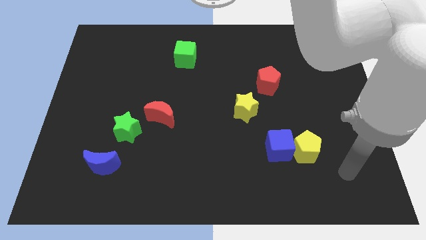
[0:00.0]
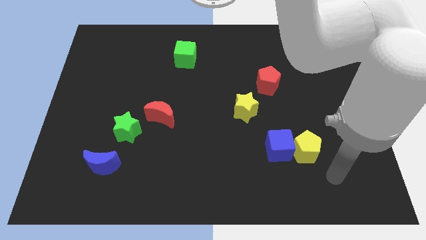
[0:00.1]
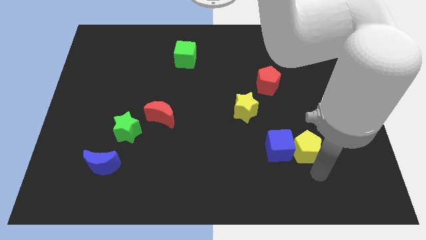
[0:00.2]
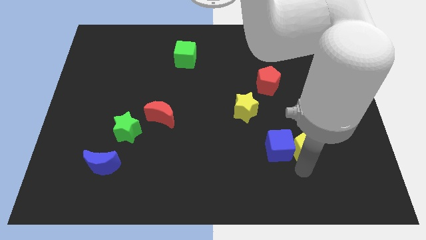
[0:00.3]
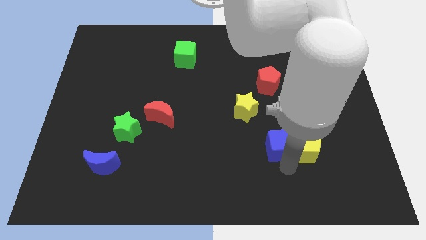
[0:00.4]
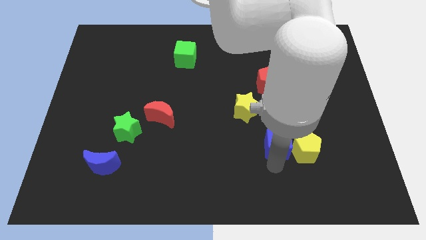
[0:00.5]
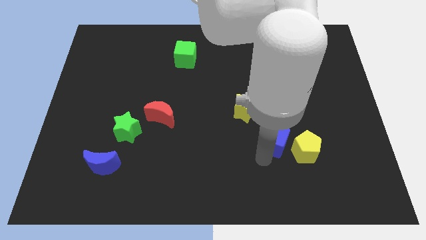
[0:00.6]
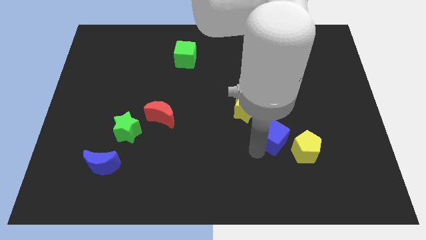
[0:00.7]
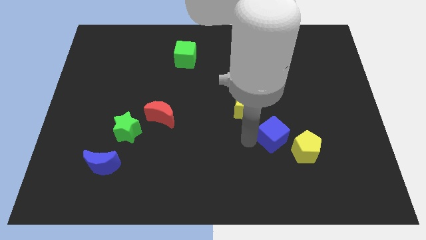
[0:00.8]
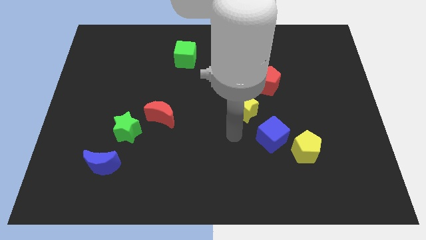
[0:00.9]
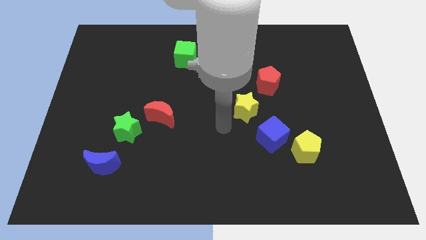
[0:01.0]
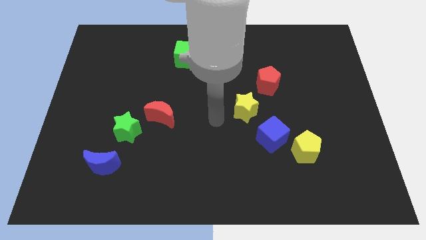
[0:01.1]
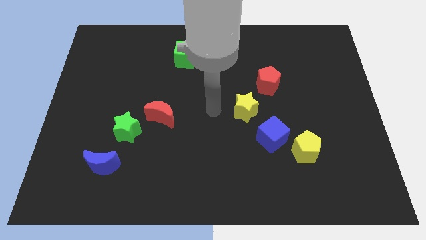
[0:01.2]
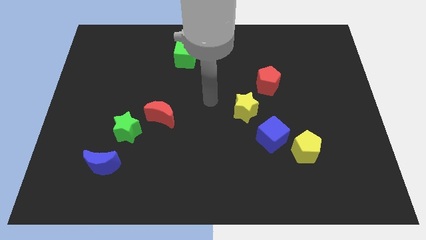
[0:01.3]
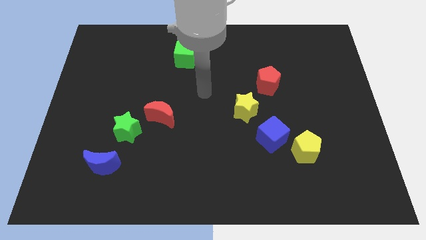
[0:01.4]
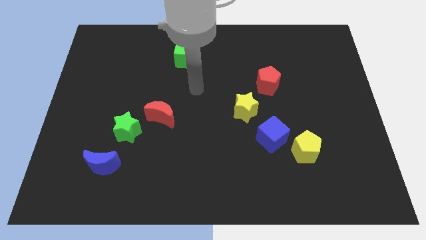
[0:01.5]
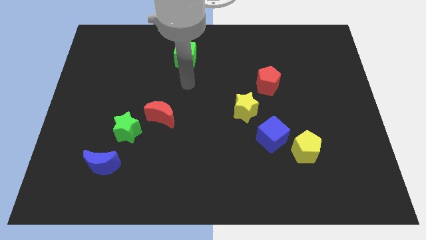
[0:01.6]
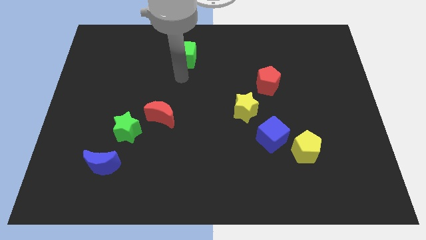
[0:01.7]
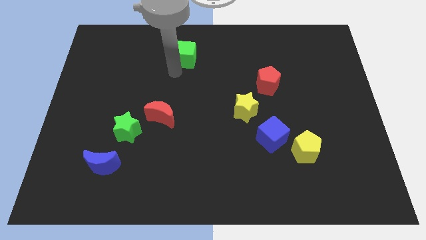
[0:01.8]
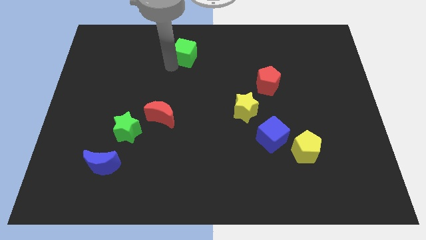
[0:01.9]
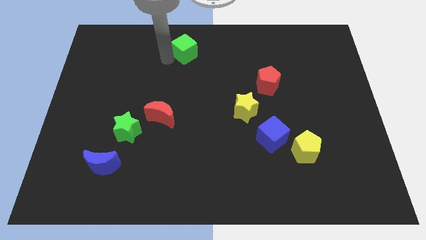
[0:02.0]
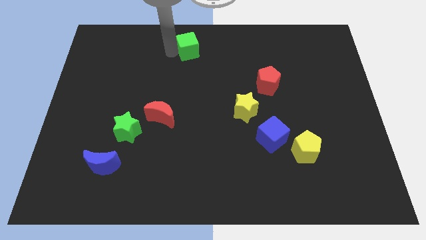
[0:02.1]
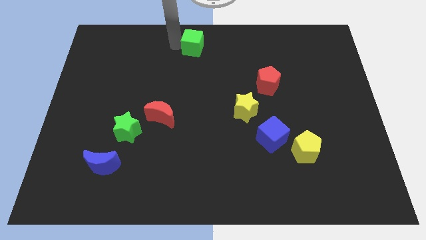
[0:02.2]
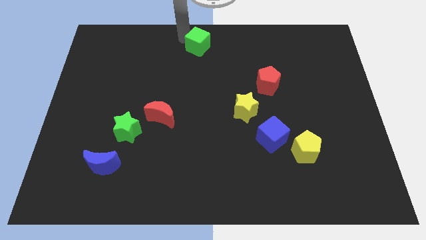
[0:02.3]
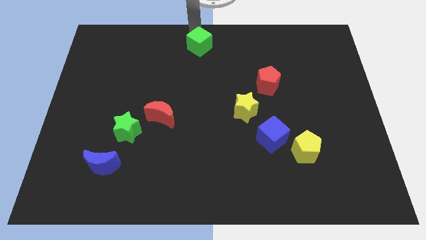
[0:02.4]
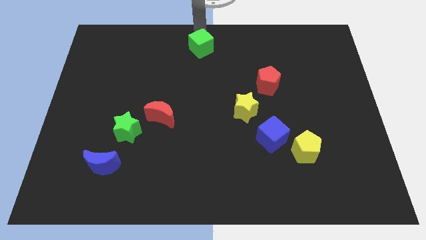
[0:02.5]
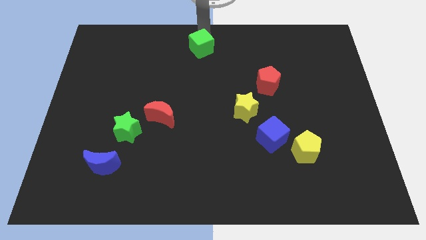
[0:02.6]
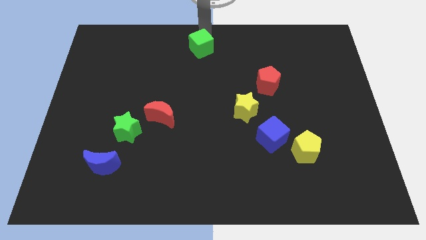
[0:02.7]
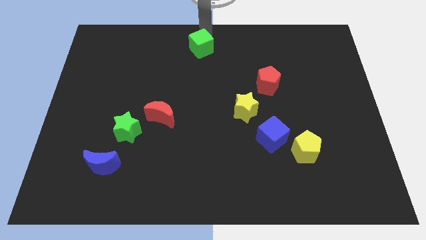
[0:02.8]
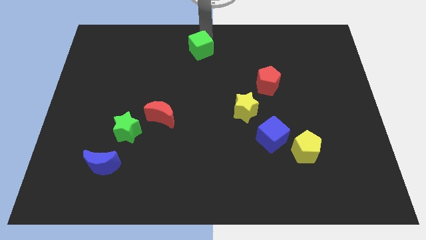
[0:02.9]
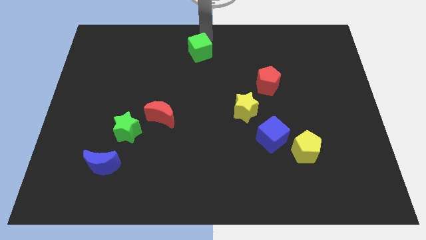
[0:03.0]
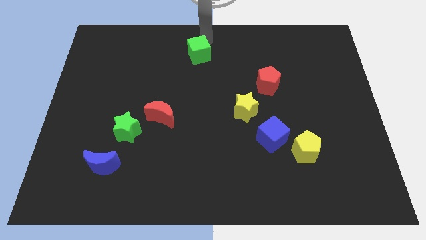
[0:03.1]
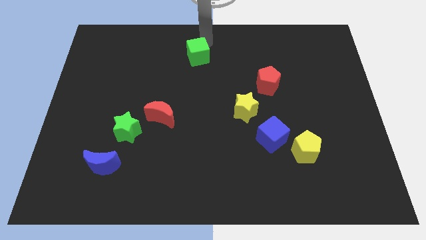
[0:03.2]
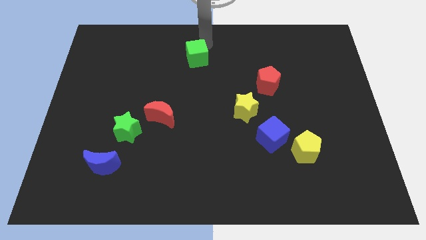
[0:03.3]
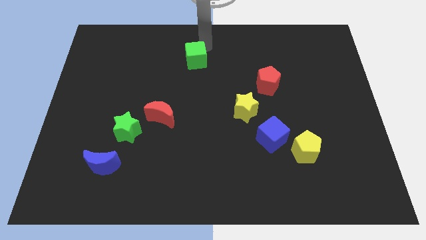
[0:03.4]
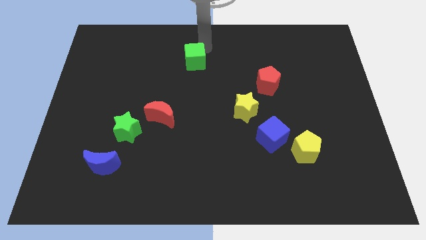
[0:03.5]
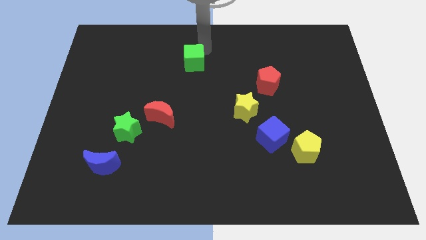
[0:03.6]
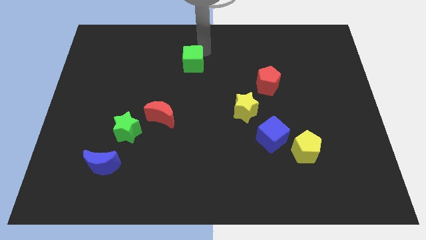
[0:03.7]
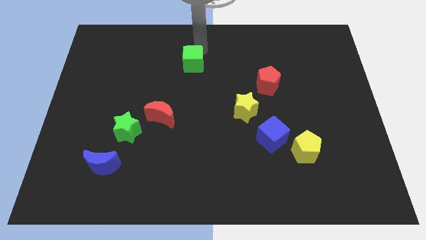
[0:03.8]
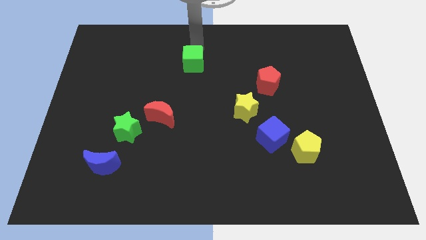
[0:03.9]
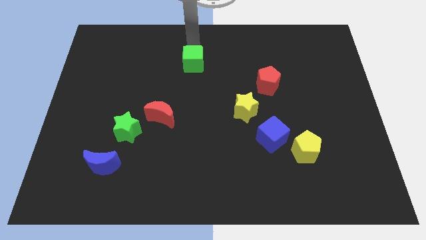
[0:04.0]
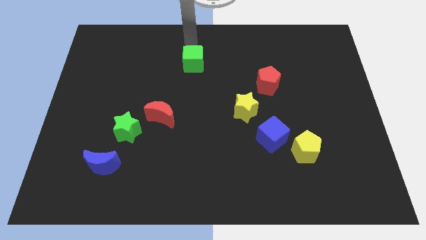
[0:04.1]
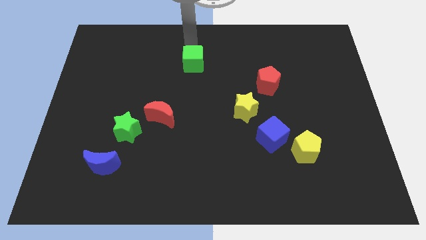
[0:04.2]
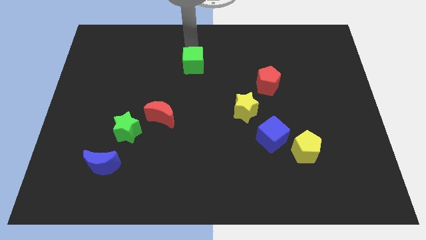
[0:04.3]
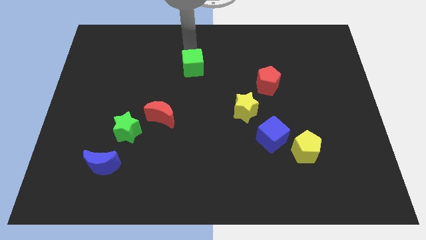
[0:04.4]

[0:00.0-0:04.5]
slide the green cube to the middle

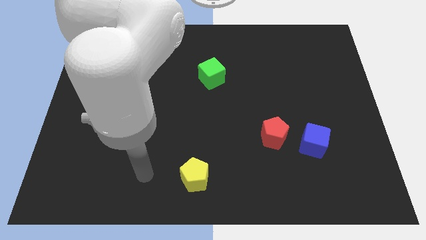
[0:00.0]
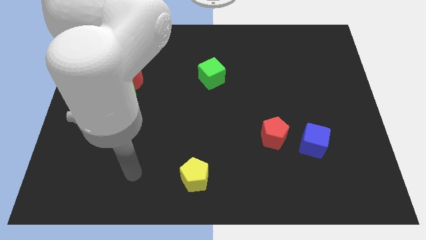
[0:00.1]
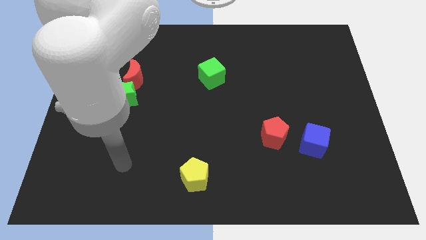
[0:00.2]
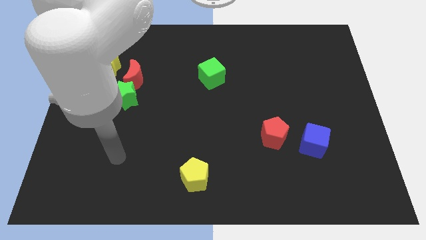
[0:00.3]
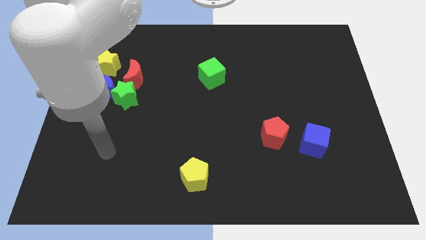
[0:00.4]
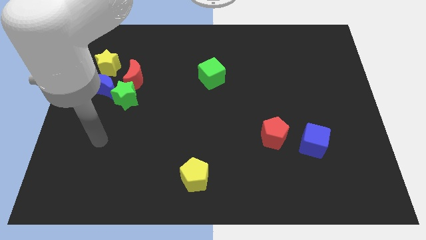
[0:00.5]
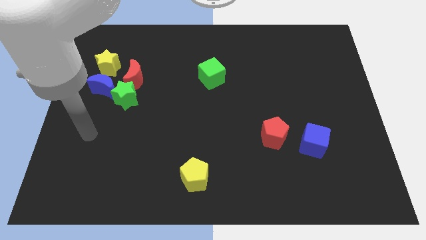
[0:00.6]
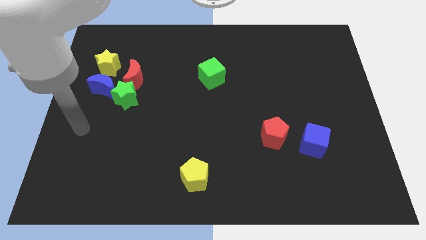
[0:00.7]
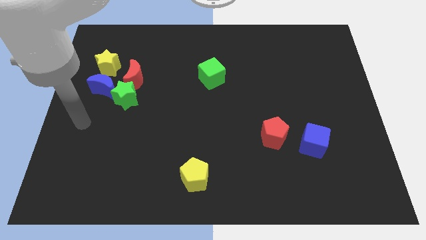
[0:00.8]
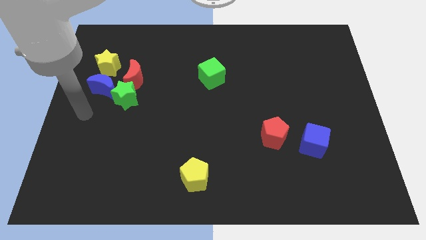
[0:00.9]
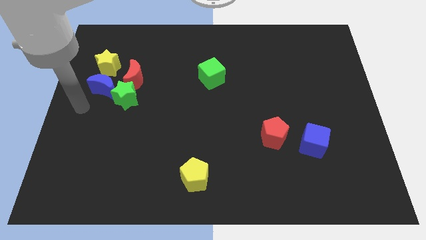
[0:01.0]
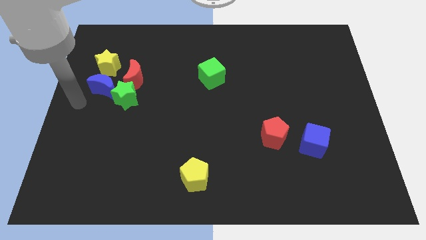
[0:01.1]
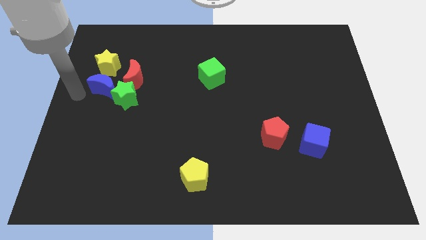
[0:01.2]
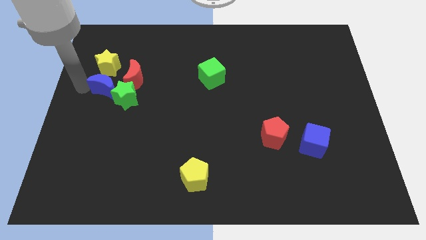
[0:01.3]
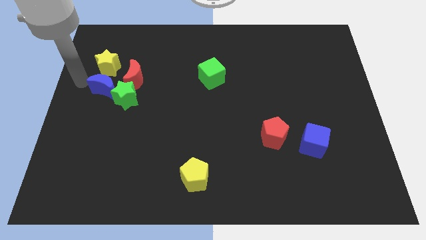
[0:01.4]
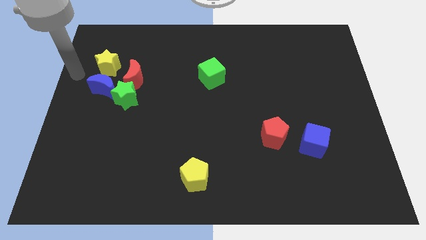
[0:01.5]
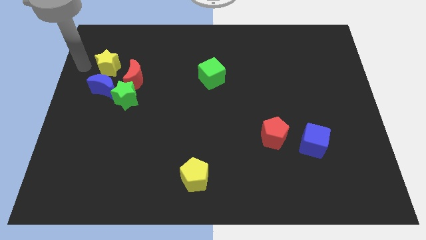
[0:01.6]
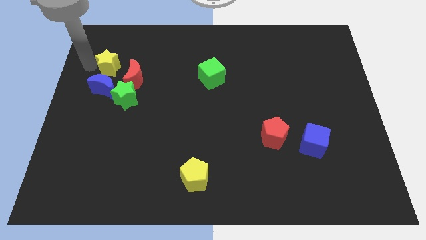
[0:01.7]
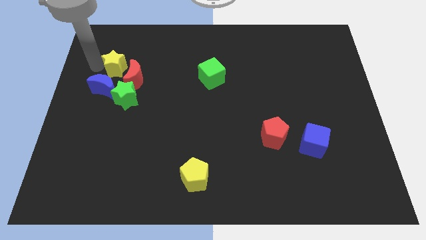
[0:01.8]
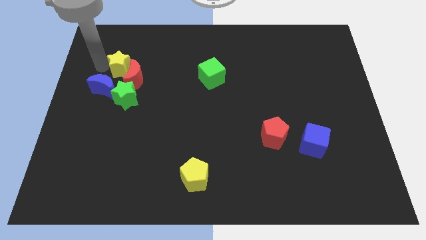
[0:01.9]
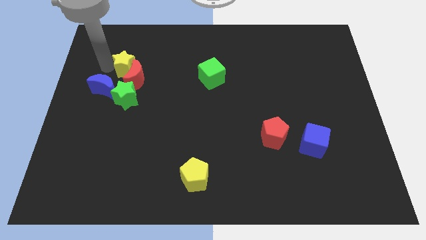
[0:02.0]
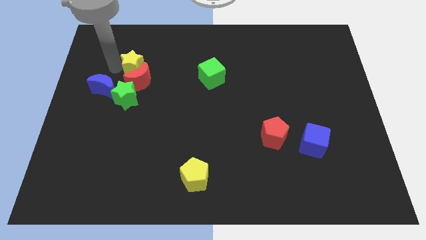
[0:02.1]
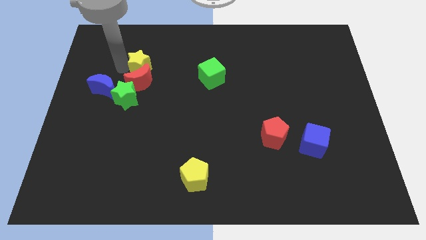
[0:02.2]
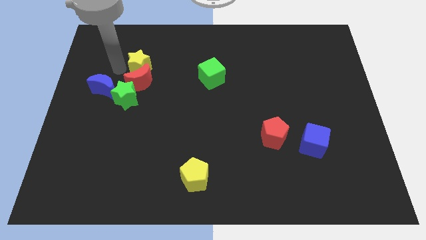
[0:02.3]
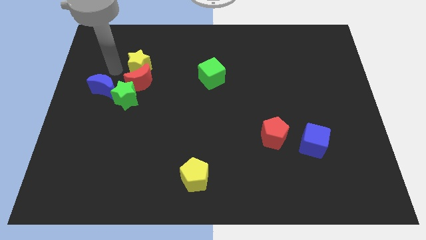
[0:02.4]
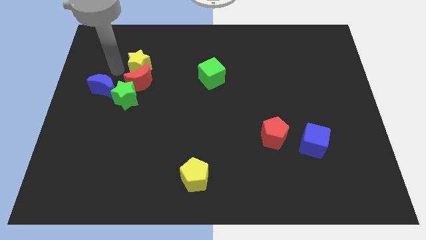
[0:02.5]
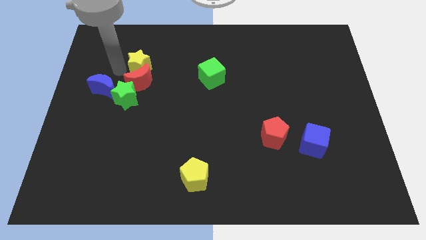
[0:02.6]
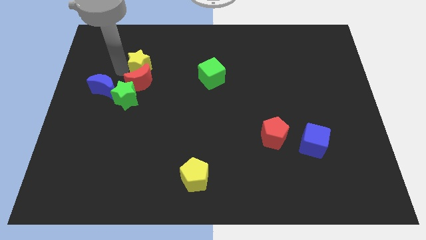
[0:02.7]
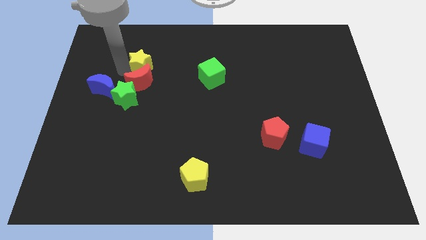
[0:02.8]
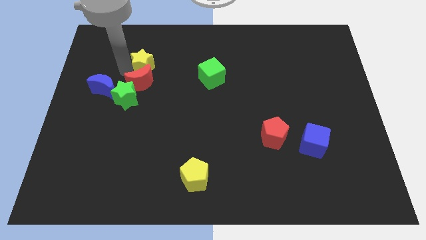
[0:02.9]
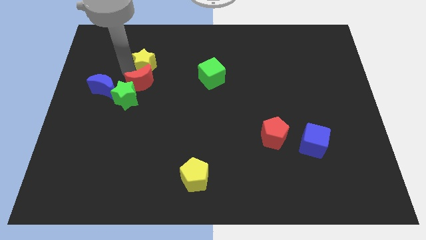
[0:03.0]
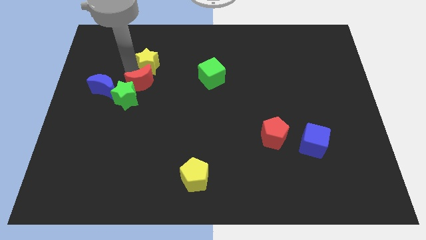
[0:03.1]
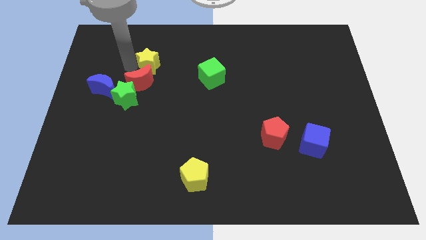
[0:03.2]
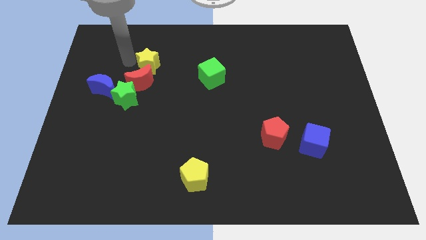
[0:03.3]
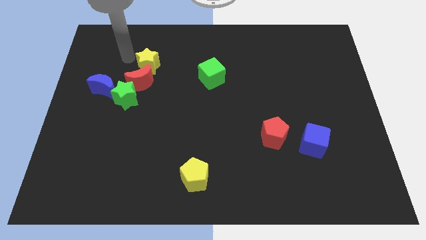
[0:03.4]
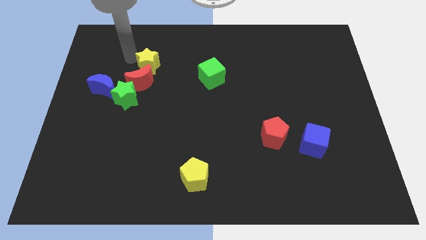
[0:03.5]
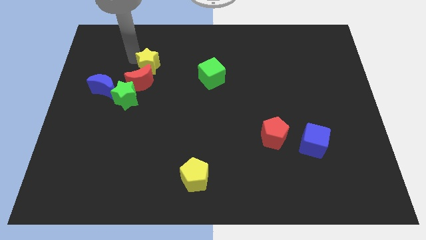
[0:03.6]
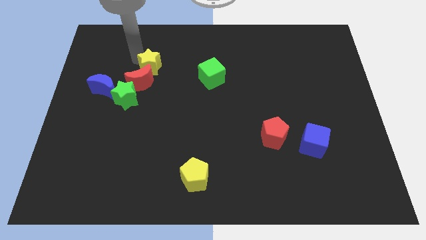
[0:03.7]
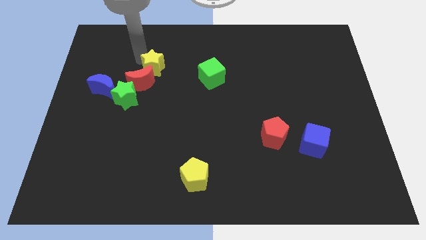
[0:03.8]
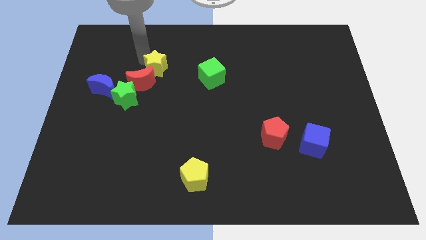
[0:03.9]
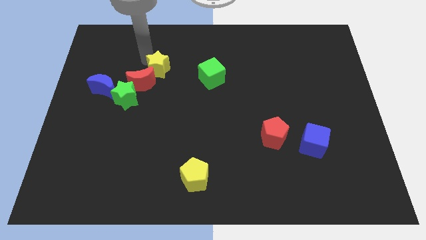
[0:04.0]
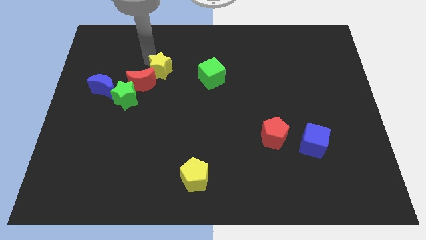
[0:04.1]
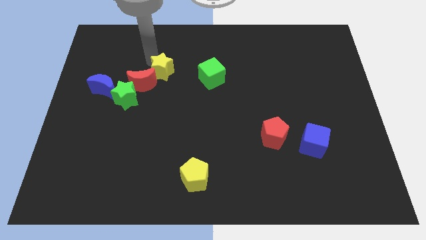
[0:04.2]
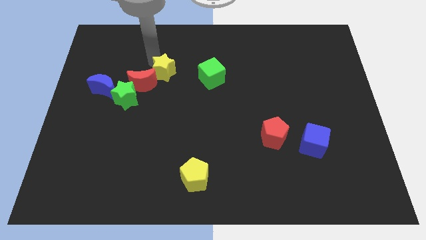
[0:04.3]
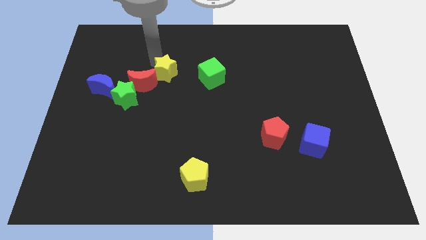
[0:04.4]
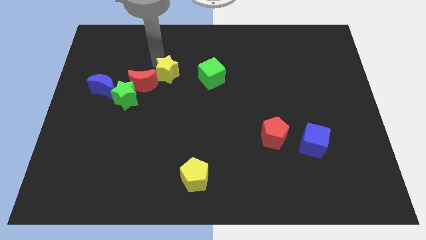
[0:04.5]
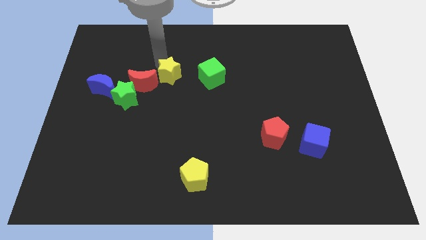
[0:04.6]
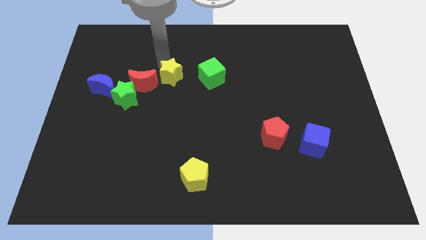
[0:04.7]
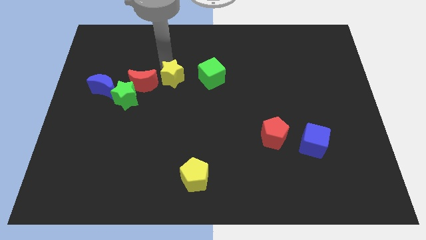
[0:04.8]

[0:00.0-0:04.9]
put the yellow star to the middle
